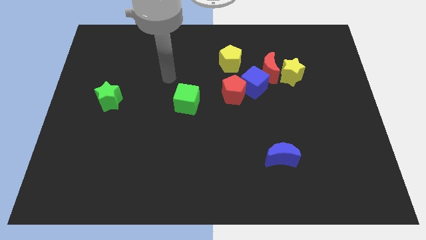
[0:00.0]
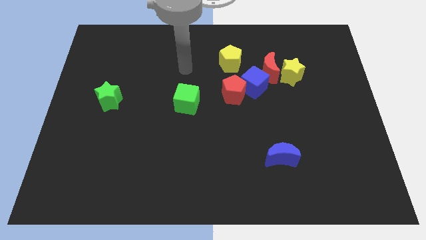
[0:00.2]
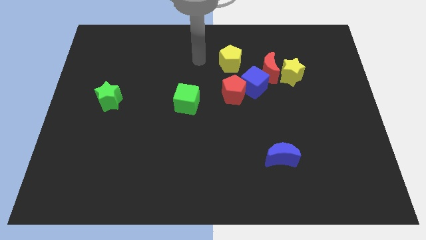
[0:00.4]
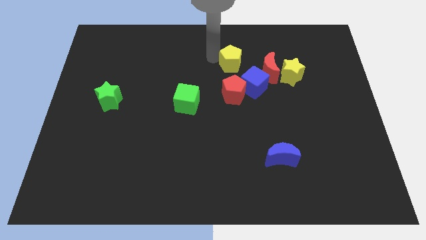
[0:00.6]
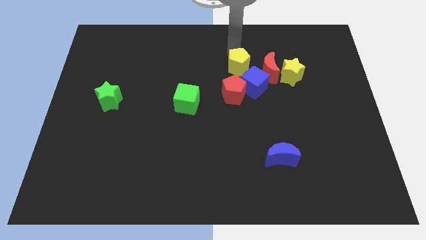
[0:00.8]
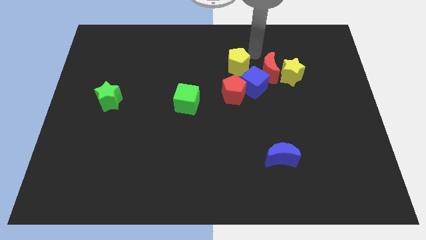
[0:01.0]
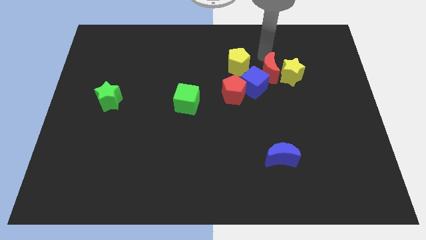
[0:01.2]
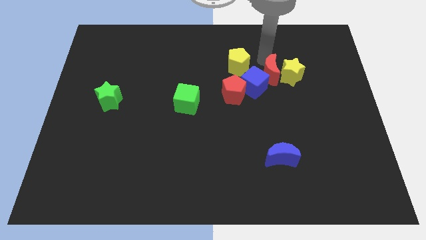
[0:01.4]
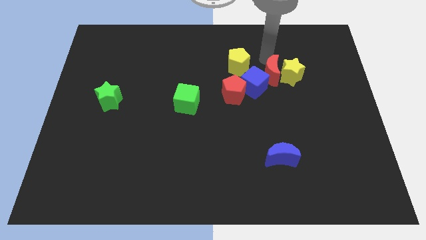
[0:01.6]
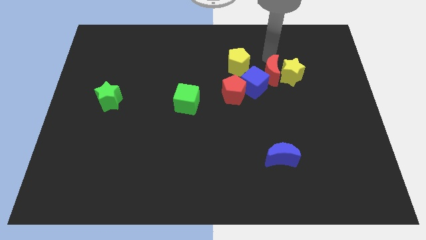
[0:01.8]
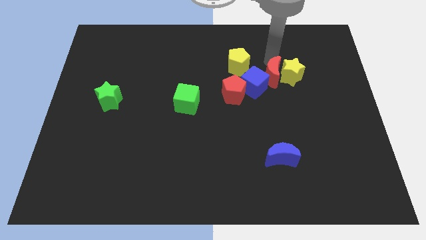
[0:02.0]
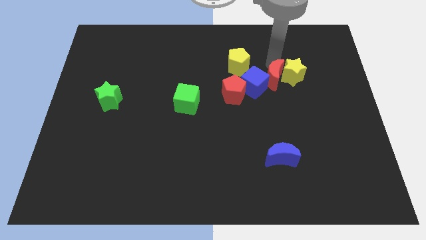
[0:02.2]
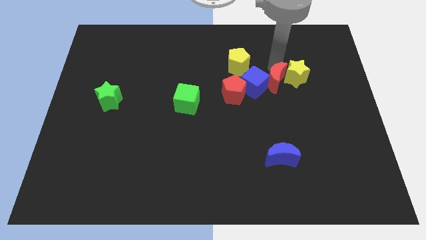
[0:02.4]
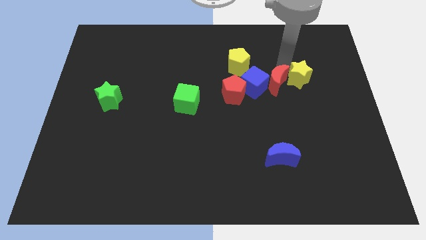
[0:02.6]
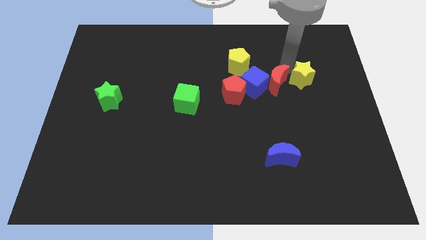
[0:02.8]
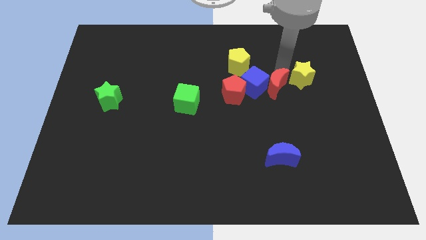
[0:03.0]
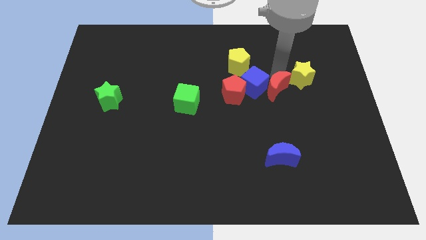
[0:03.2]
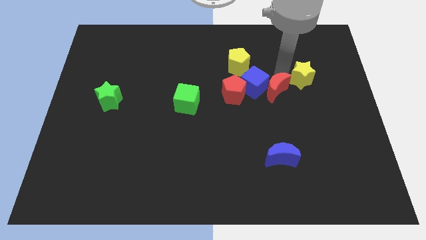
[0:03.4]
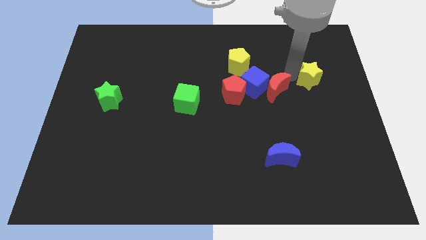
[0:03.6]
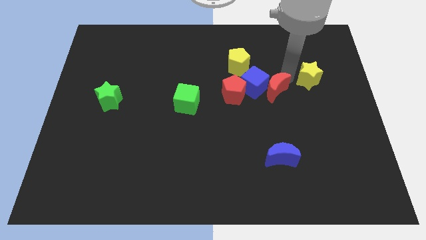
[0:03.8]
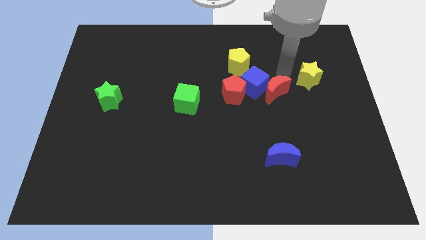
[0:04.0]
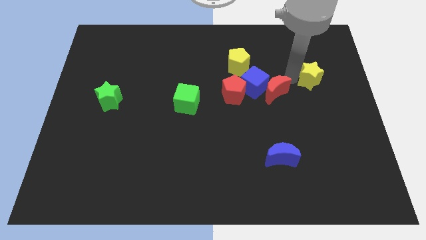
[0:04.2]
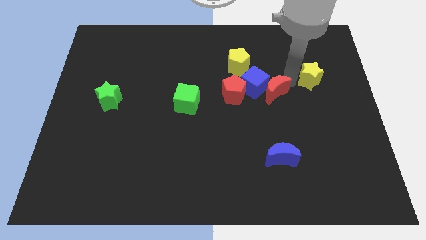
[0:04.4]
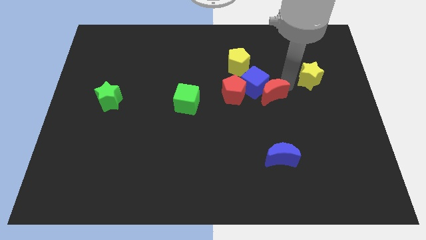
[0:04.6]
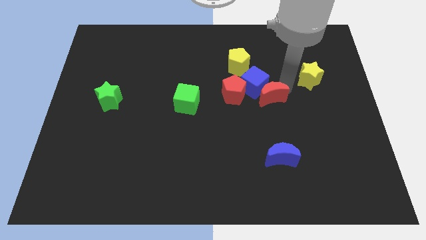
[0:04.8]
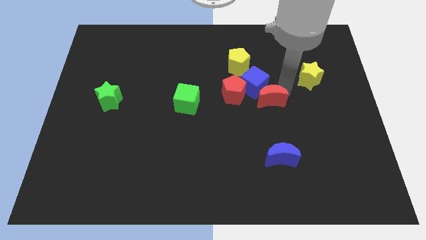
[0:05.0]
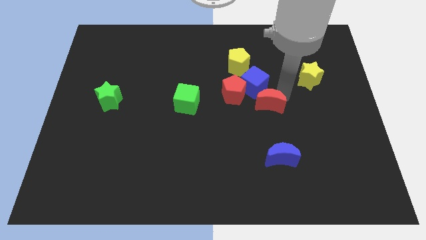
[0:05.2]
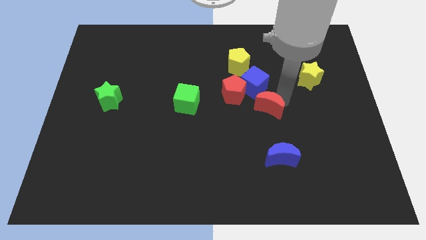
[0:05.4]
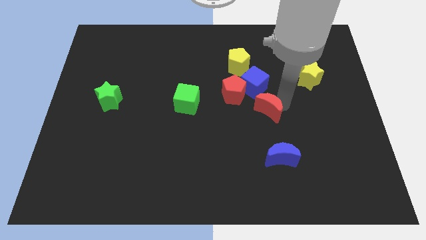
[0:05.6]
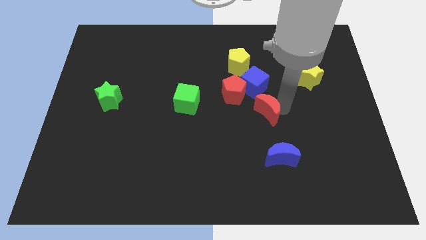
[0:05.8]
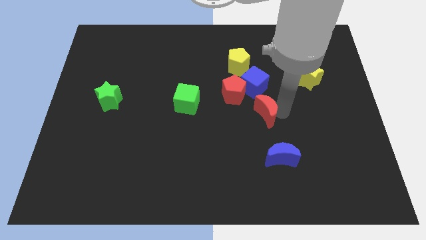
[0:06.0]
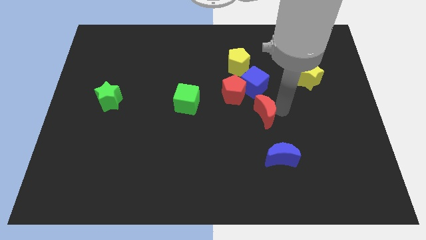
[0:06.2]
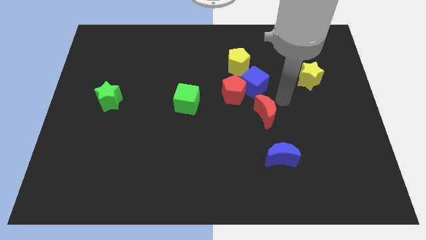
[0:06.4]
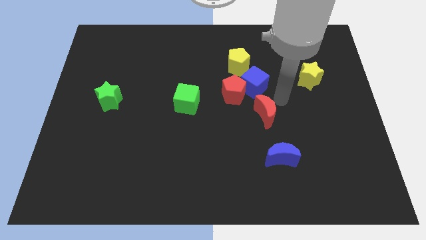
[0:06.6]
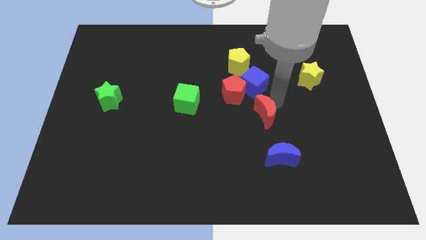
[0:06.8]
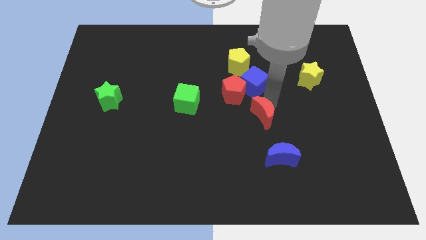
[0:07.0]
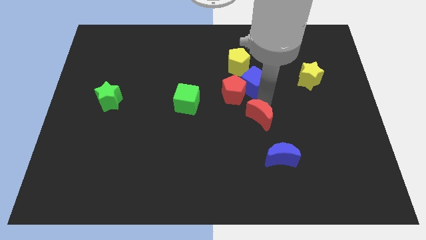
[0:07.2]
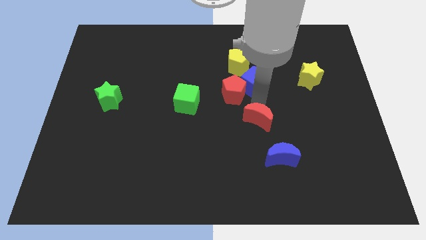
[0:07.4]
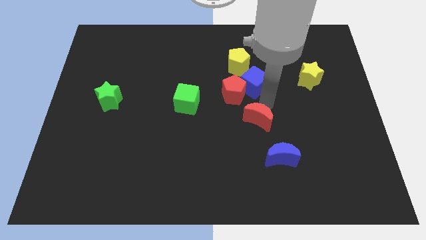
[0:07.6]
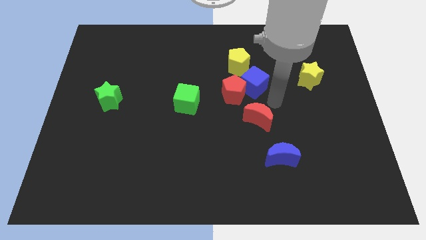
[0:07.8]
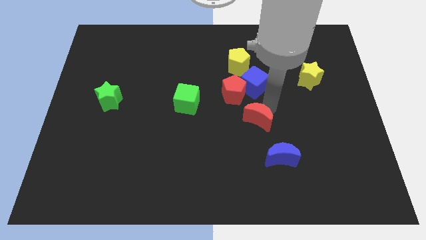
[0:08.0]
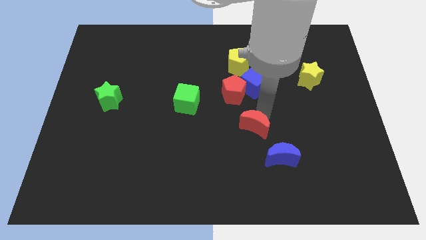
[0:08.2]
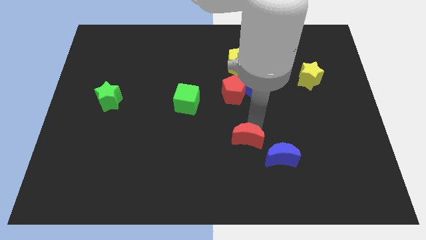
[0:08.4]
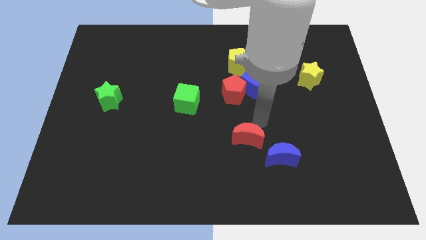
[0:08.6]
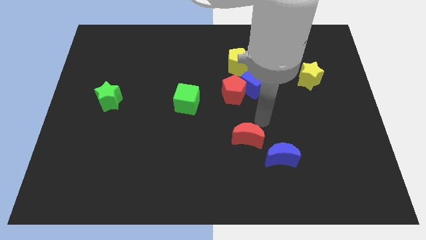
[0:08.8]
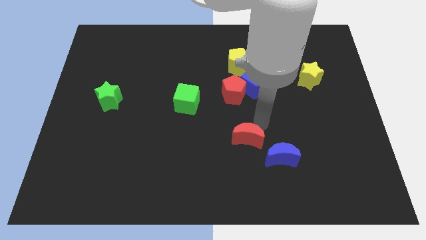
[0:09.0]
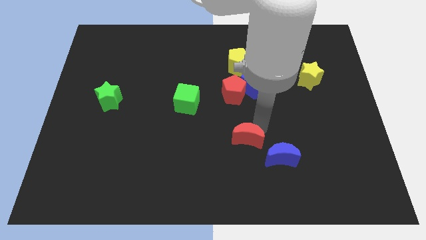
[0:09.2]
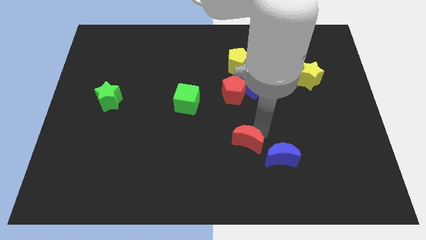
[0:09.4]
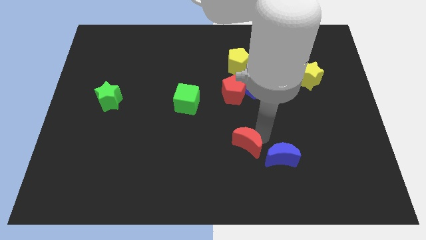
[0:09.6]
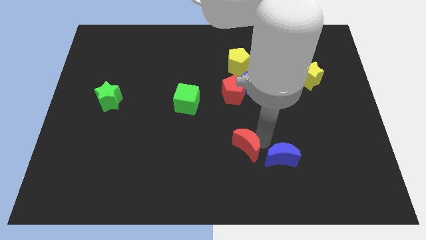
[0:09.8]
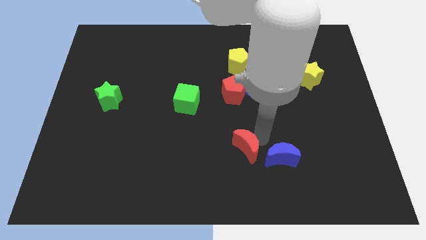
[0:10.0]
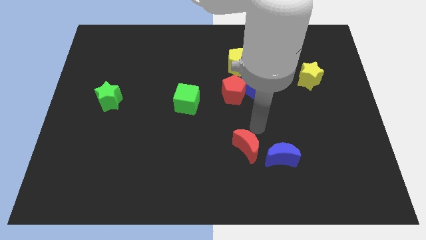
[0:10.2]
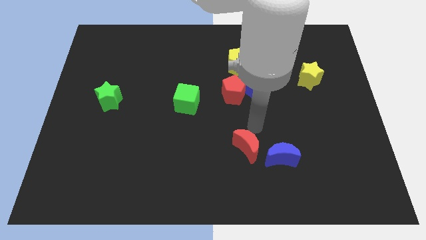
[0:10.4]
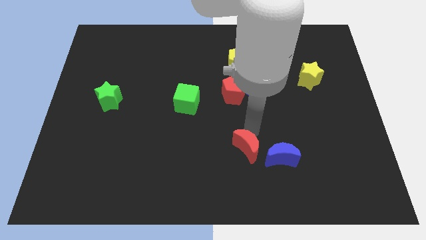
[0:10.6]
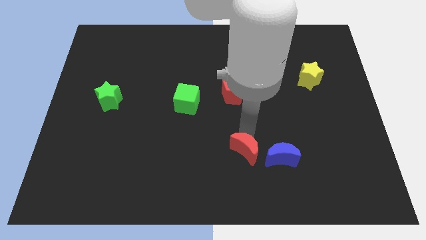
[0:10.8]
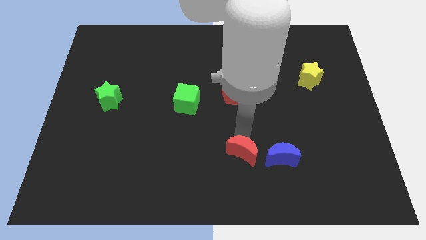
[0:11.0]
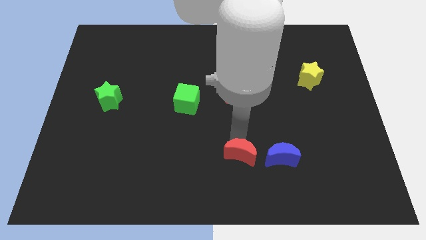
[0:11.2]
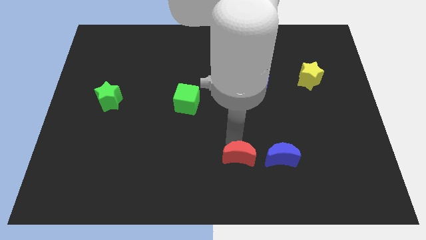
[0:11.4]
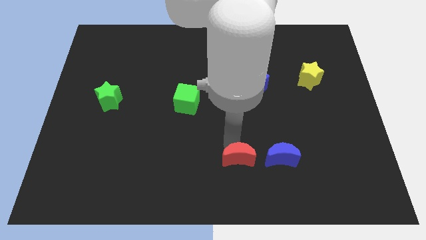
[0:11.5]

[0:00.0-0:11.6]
move the red moon to the bottom

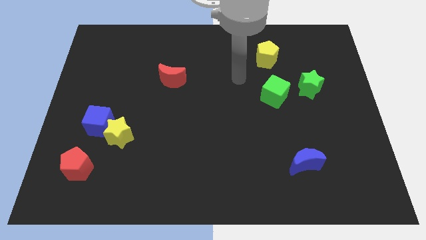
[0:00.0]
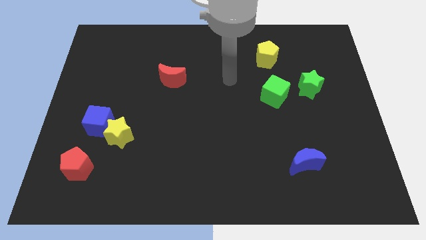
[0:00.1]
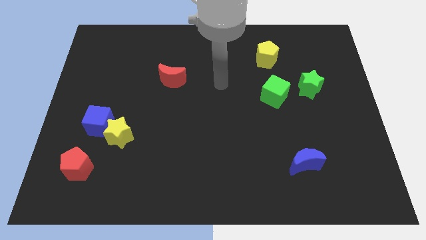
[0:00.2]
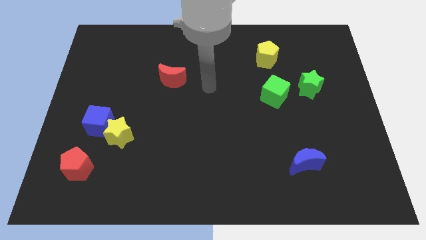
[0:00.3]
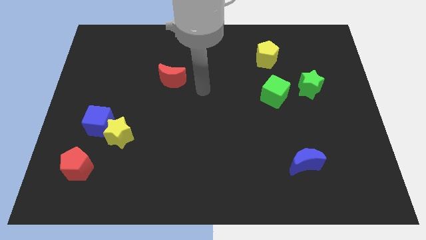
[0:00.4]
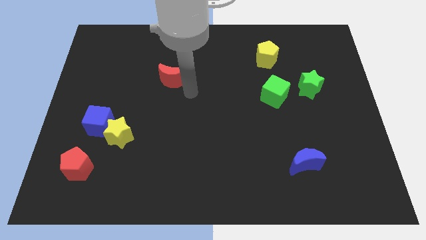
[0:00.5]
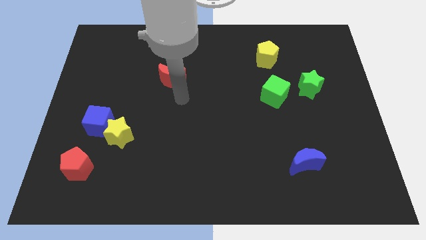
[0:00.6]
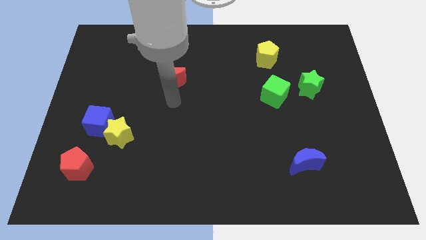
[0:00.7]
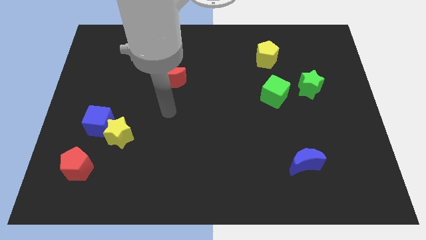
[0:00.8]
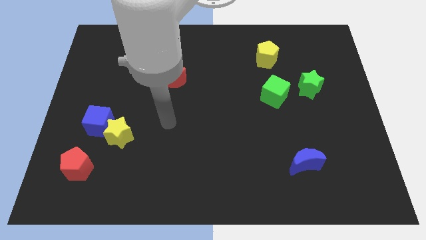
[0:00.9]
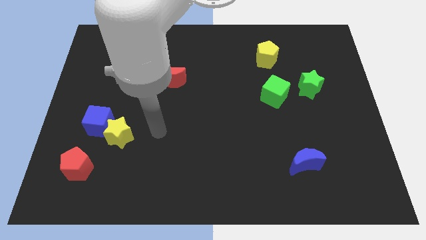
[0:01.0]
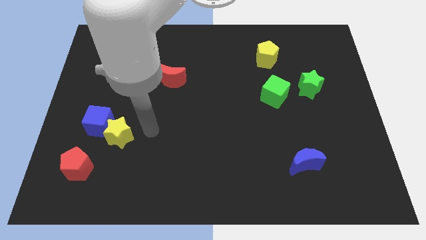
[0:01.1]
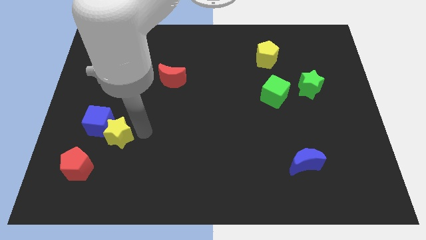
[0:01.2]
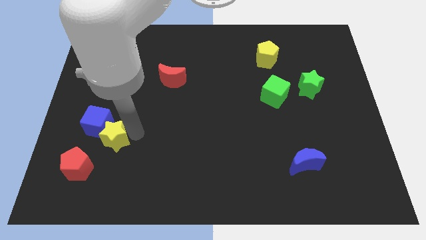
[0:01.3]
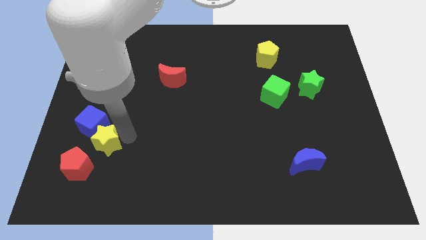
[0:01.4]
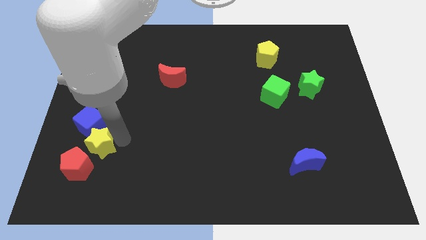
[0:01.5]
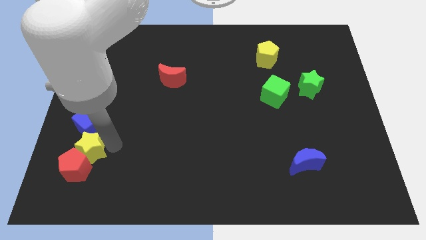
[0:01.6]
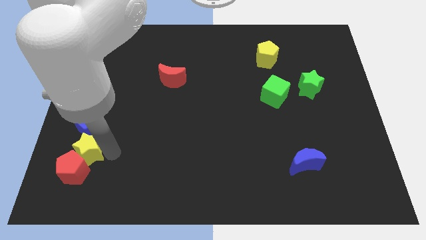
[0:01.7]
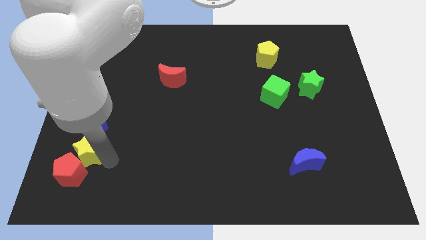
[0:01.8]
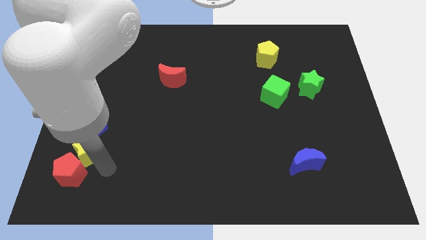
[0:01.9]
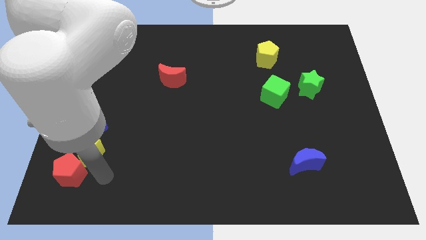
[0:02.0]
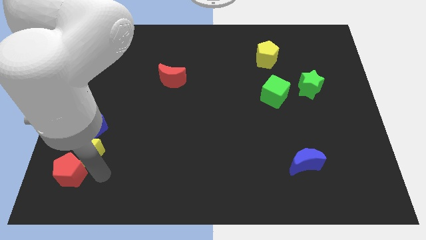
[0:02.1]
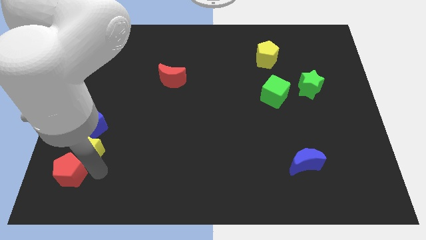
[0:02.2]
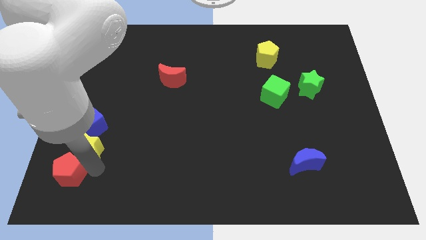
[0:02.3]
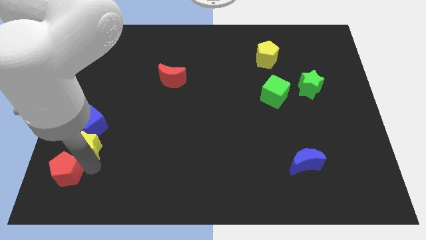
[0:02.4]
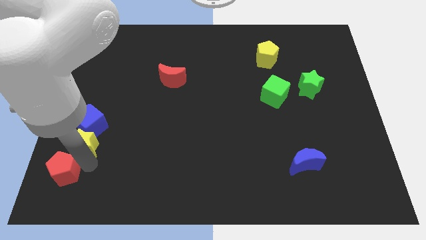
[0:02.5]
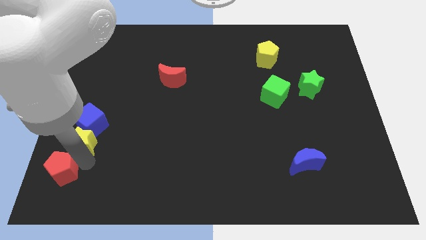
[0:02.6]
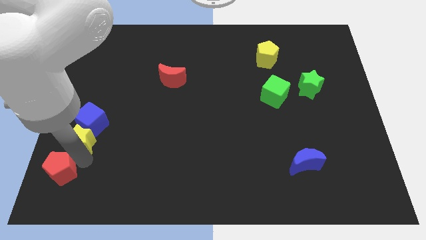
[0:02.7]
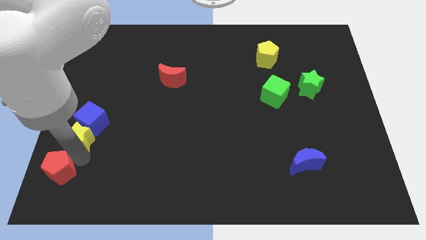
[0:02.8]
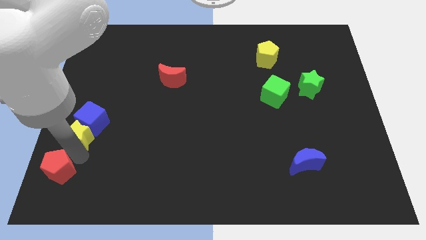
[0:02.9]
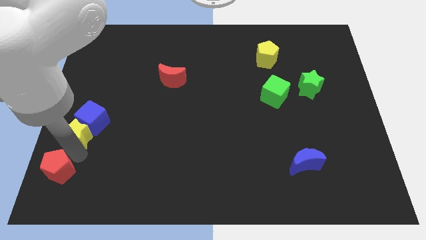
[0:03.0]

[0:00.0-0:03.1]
push the yellow star to the left side
